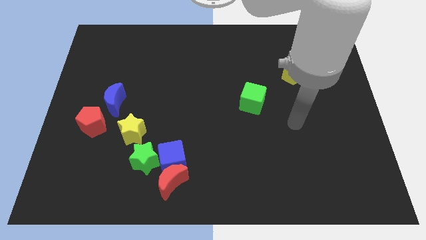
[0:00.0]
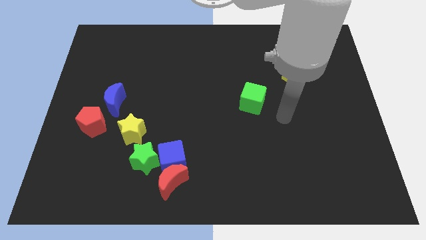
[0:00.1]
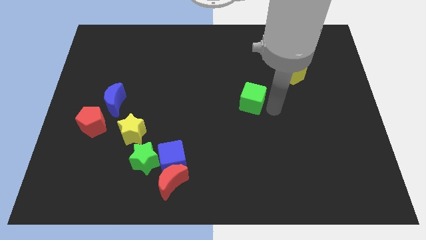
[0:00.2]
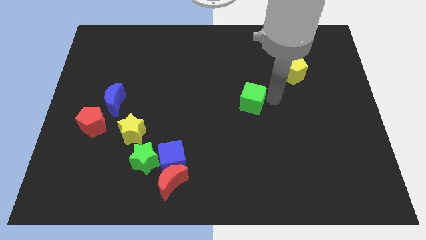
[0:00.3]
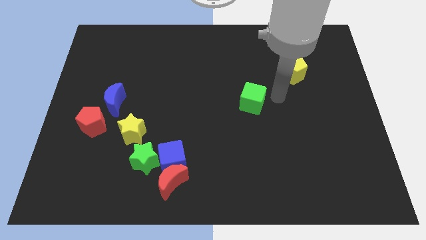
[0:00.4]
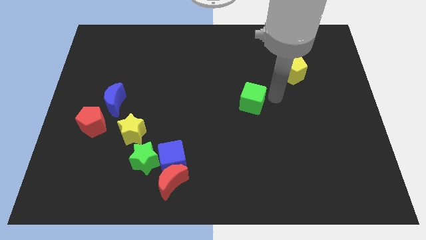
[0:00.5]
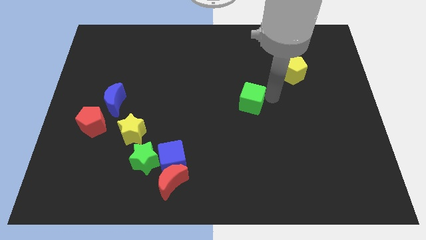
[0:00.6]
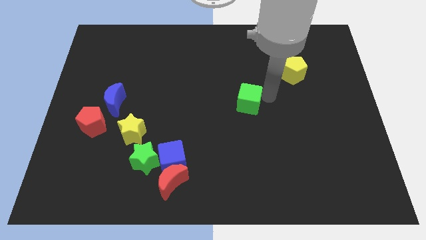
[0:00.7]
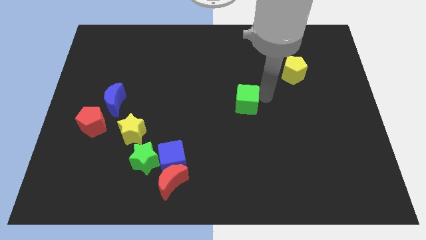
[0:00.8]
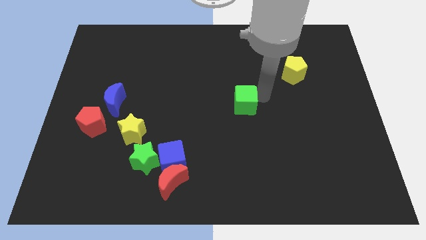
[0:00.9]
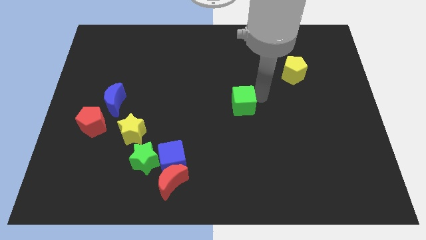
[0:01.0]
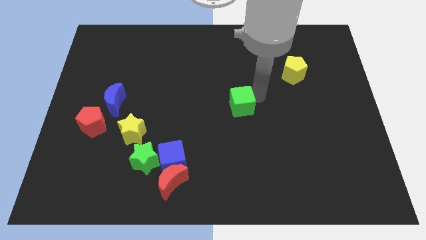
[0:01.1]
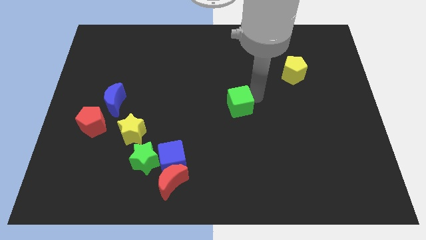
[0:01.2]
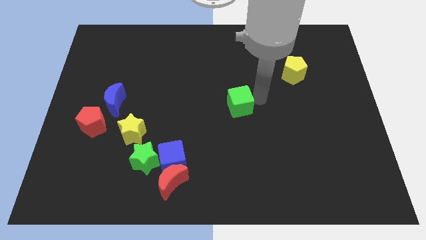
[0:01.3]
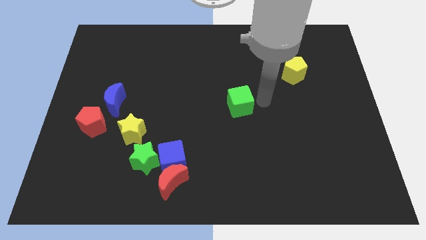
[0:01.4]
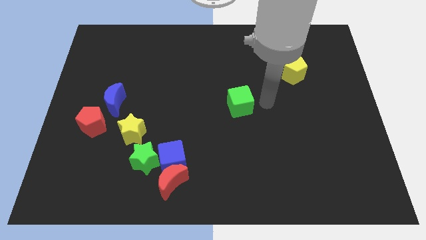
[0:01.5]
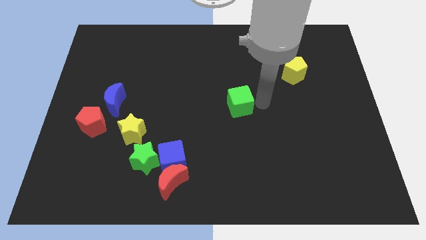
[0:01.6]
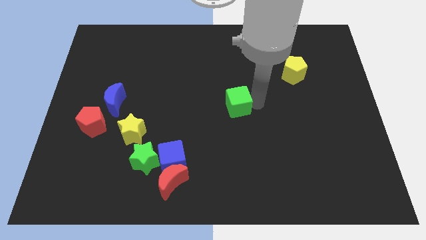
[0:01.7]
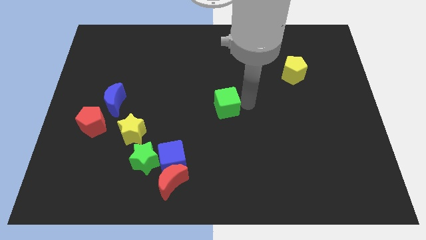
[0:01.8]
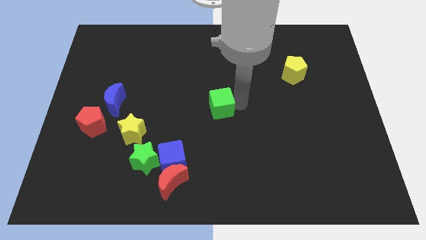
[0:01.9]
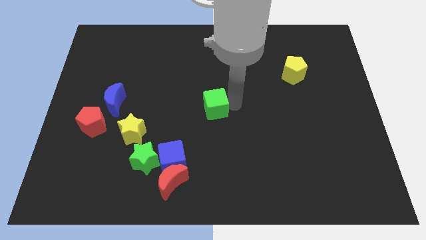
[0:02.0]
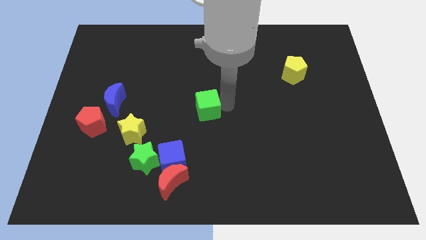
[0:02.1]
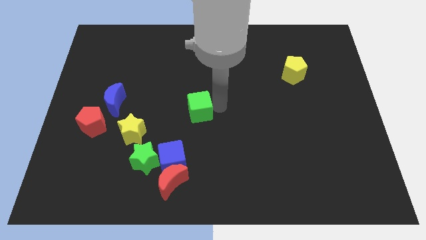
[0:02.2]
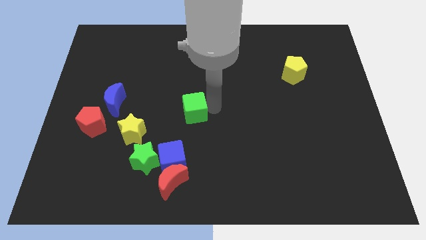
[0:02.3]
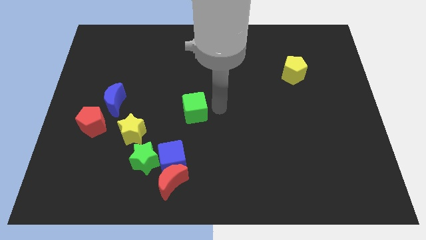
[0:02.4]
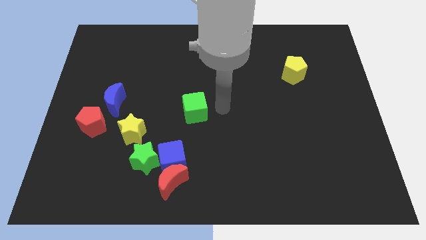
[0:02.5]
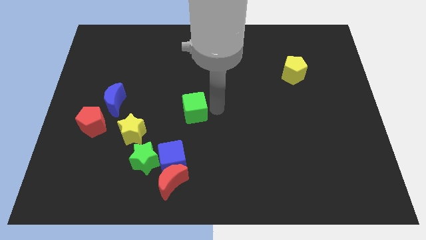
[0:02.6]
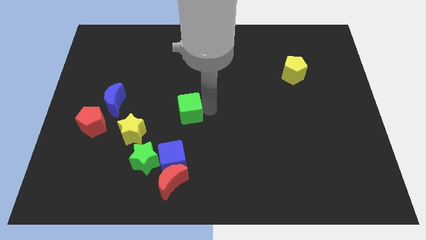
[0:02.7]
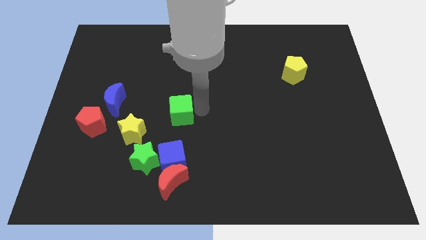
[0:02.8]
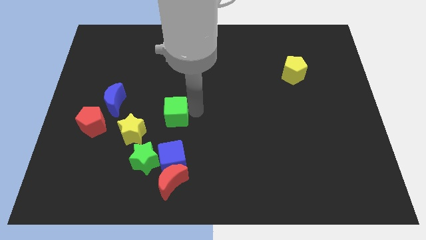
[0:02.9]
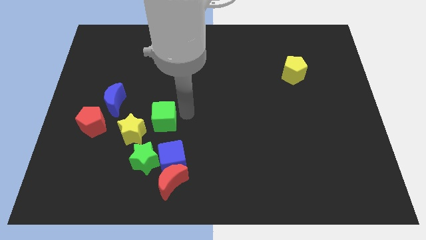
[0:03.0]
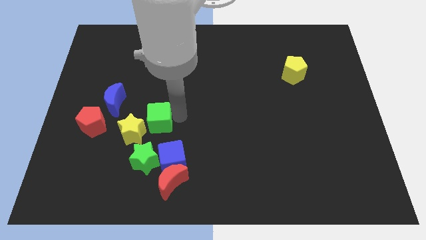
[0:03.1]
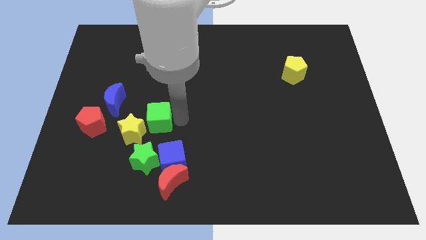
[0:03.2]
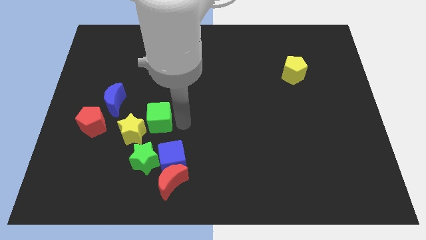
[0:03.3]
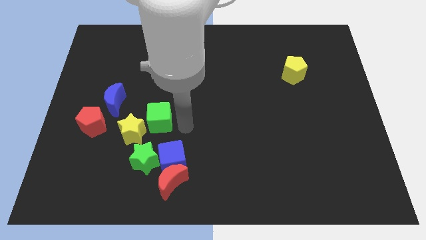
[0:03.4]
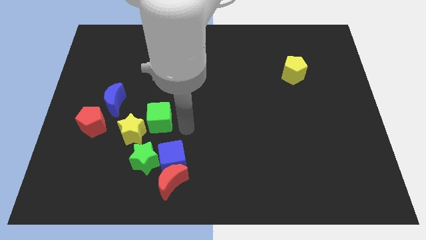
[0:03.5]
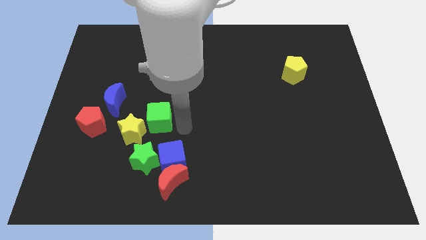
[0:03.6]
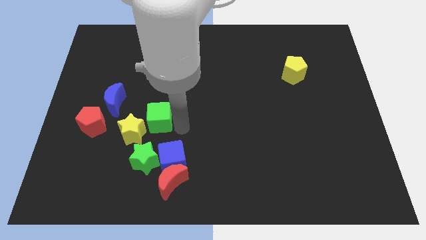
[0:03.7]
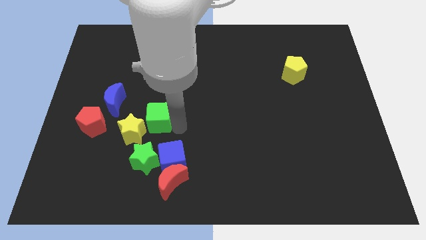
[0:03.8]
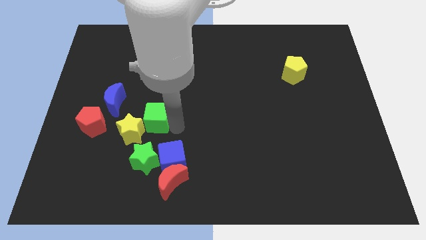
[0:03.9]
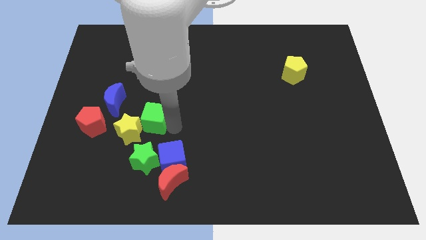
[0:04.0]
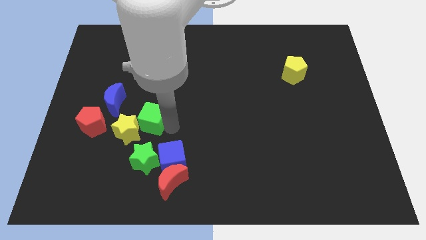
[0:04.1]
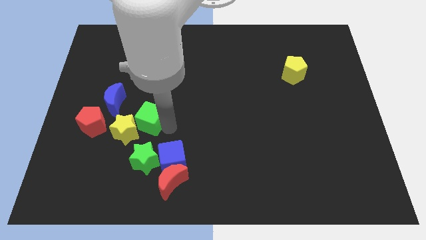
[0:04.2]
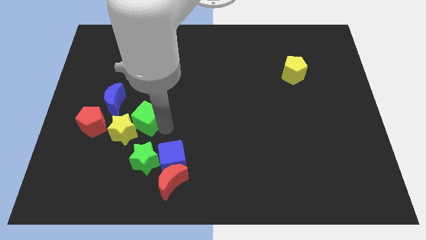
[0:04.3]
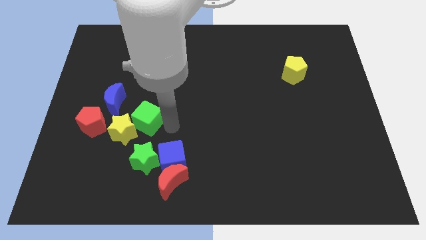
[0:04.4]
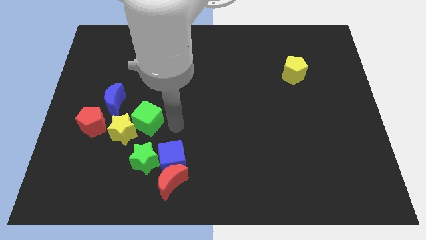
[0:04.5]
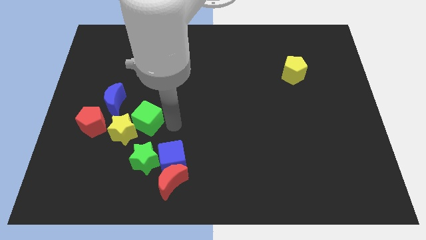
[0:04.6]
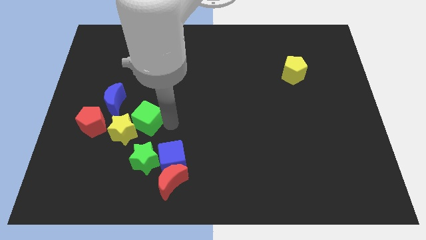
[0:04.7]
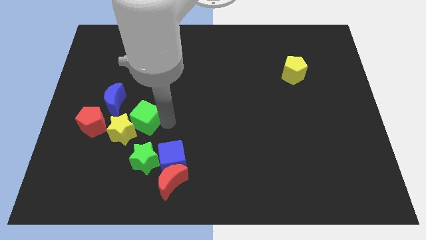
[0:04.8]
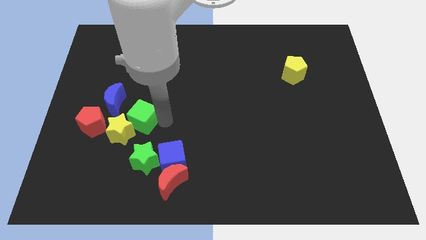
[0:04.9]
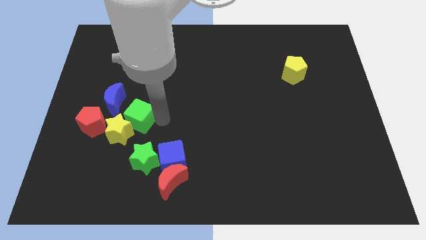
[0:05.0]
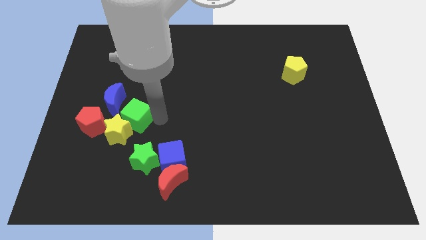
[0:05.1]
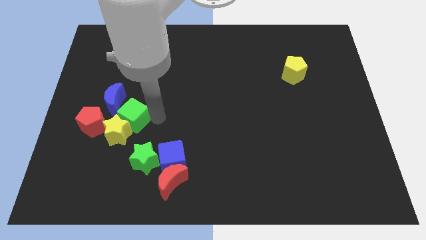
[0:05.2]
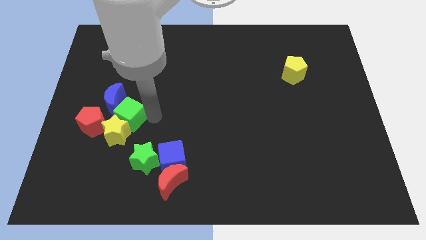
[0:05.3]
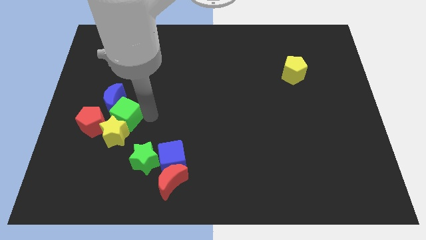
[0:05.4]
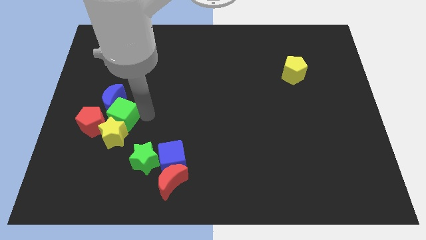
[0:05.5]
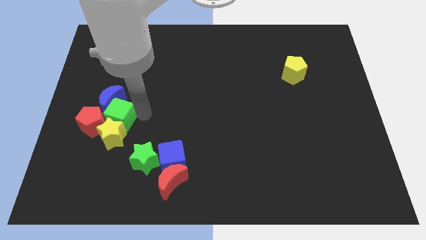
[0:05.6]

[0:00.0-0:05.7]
slide the green cube to the red pentagon

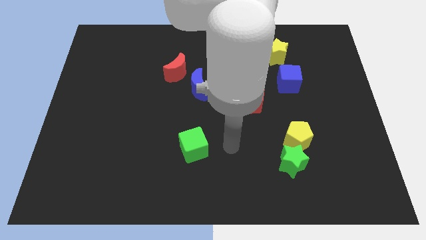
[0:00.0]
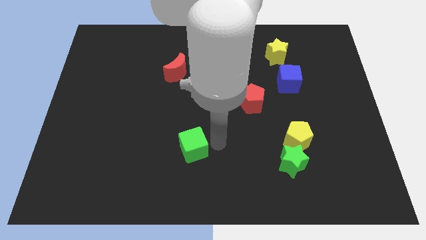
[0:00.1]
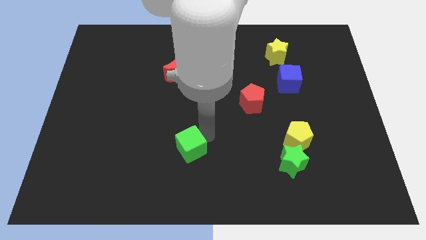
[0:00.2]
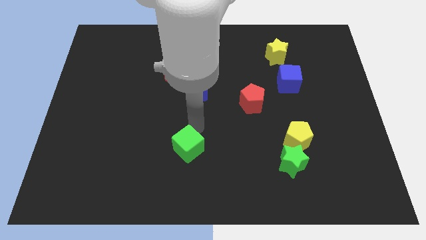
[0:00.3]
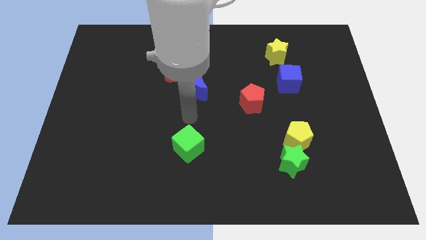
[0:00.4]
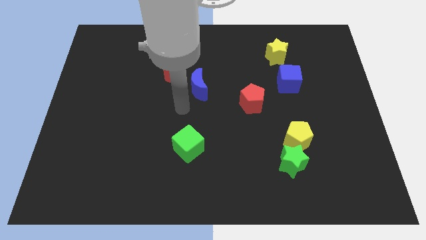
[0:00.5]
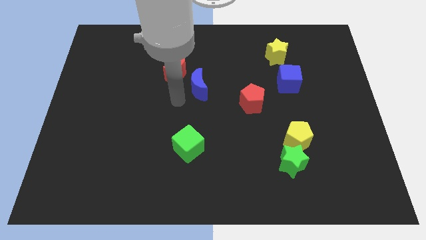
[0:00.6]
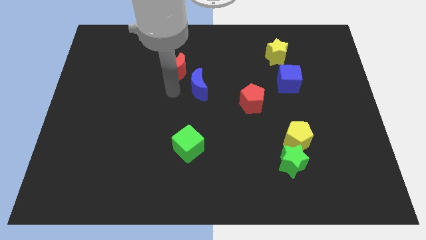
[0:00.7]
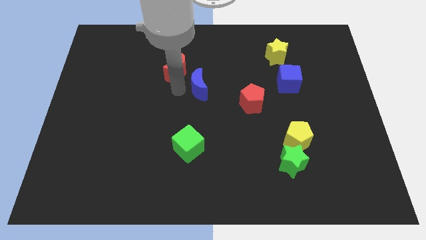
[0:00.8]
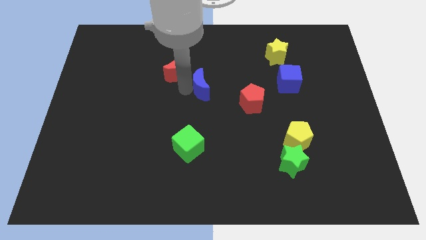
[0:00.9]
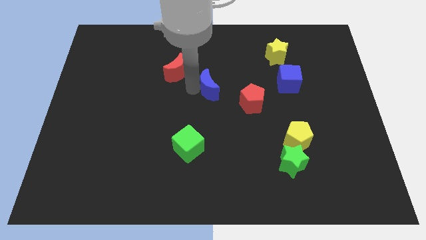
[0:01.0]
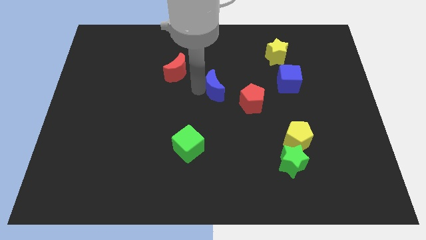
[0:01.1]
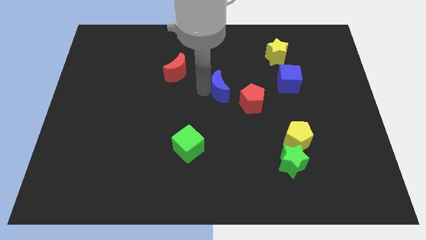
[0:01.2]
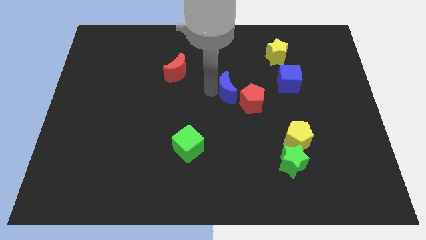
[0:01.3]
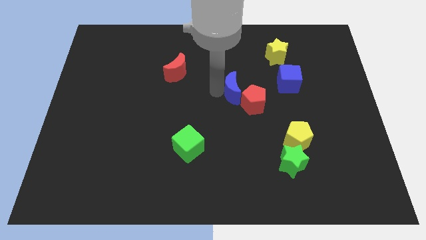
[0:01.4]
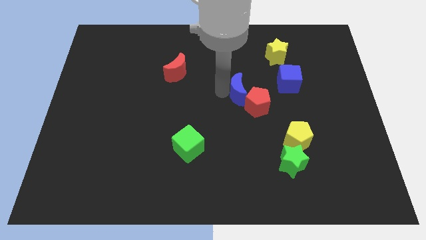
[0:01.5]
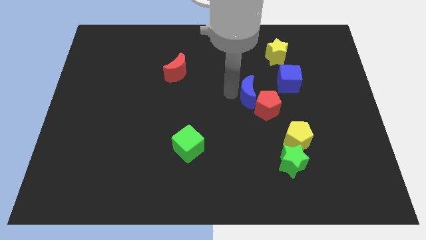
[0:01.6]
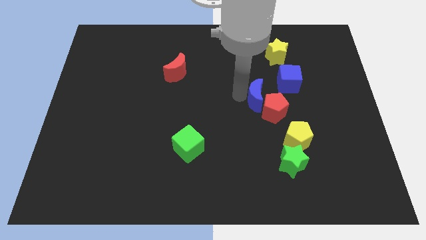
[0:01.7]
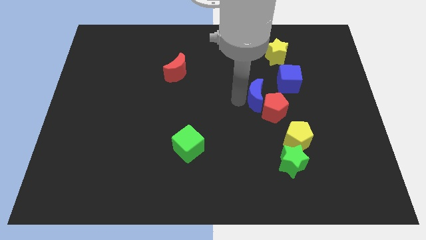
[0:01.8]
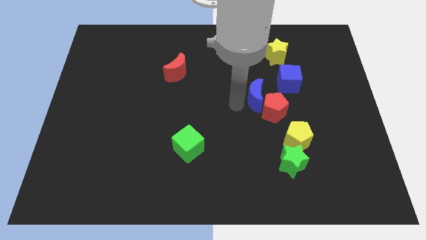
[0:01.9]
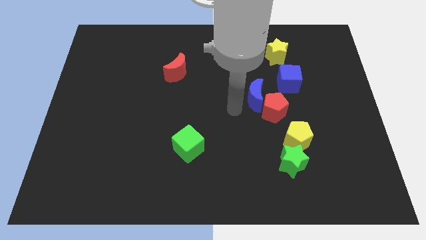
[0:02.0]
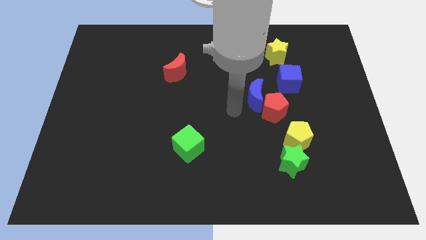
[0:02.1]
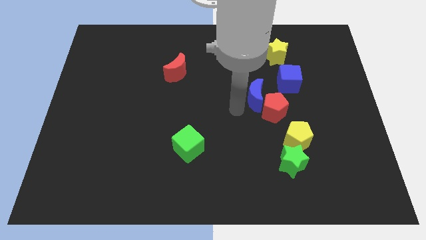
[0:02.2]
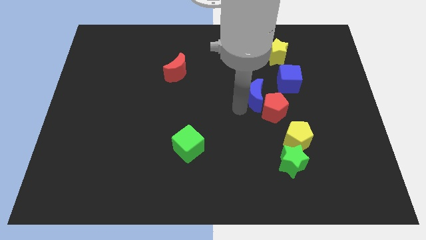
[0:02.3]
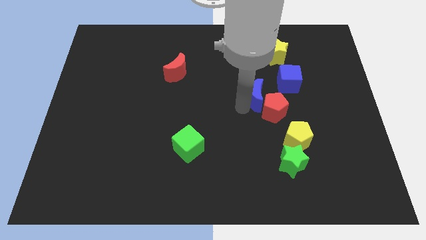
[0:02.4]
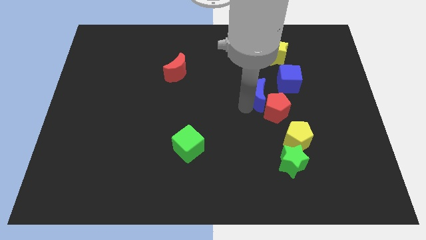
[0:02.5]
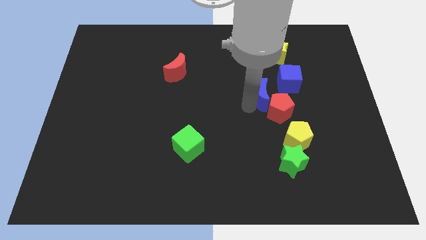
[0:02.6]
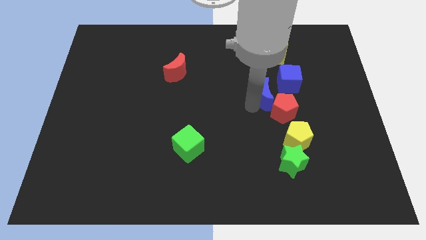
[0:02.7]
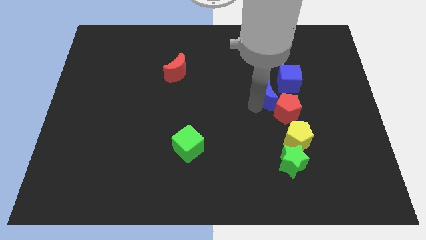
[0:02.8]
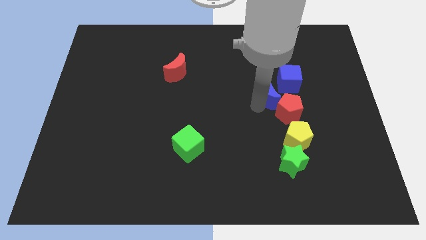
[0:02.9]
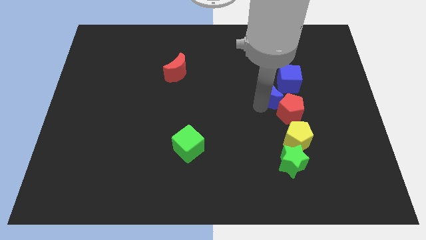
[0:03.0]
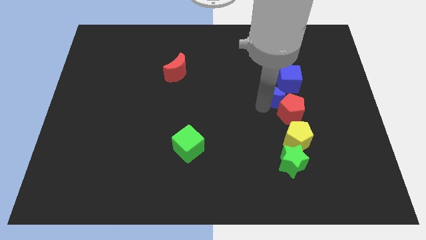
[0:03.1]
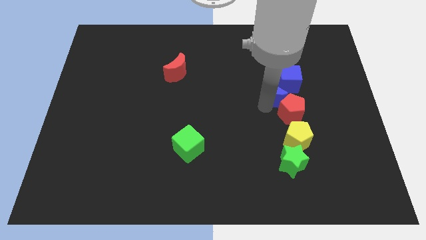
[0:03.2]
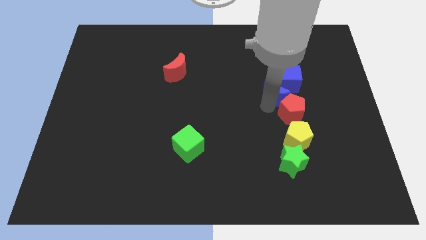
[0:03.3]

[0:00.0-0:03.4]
move the blue moon to the blue cube
